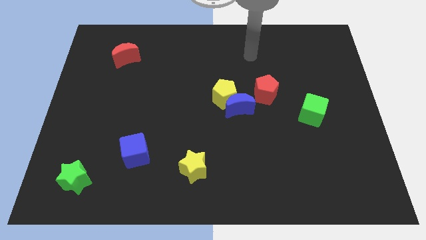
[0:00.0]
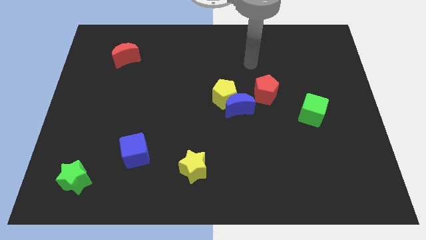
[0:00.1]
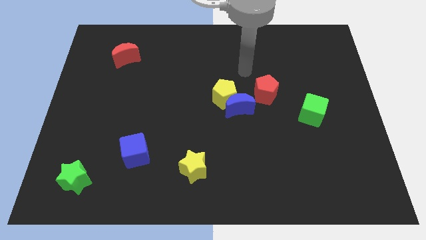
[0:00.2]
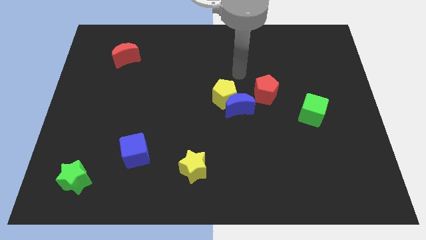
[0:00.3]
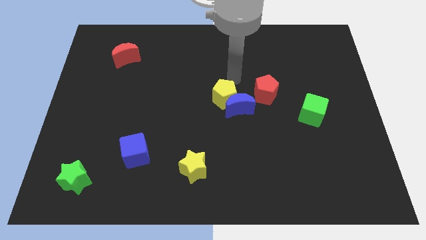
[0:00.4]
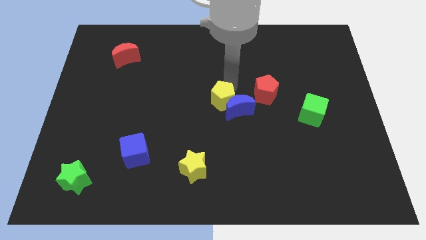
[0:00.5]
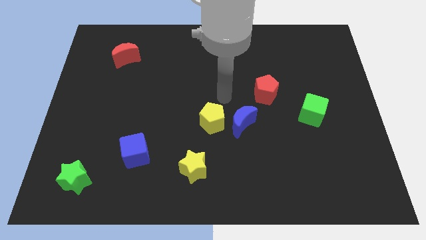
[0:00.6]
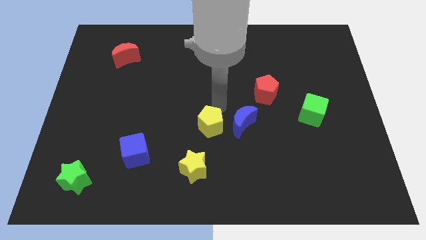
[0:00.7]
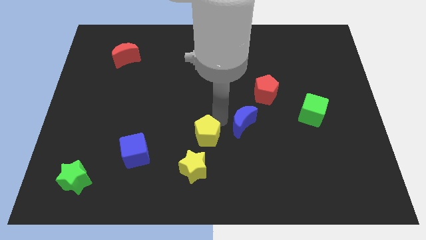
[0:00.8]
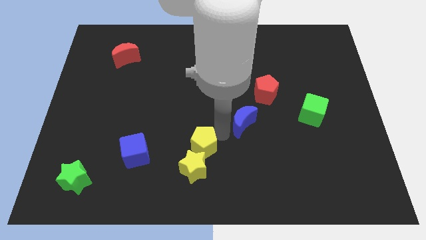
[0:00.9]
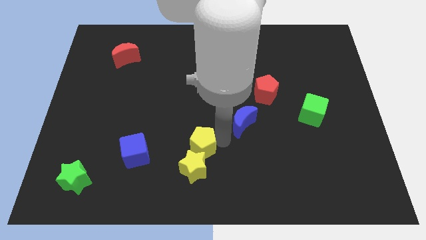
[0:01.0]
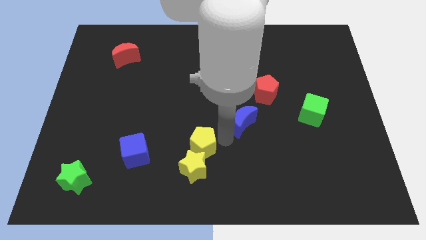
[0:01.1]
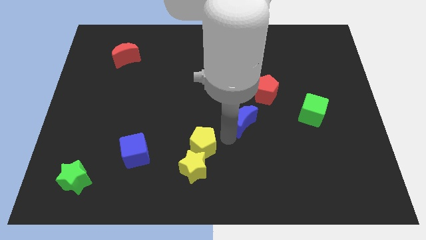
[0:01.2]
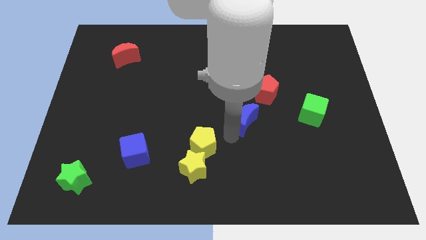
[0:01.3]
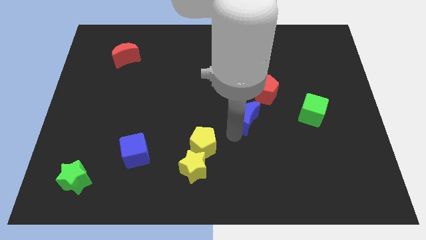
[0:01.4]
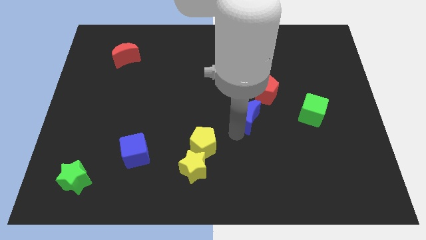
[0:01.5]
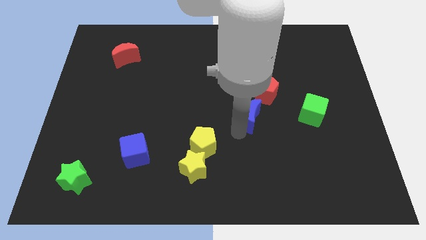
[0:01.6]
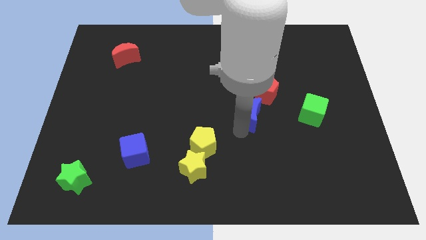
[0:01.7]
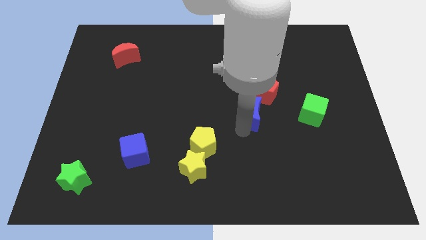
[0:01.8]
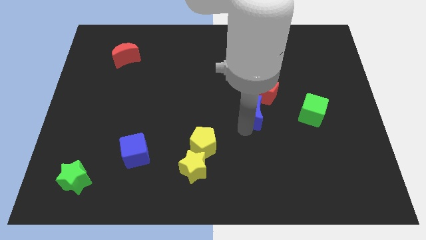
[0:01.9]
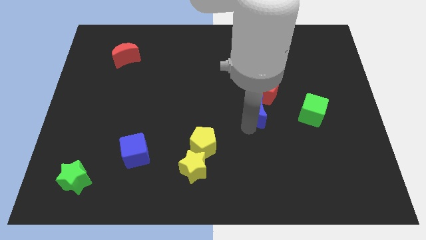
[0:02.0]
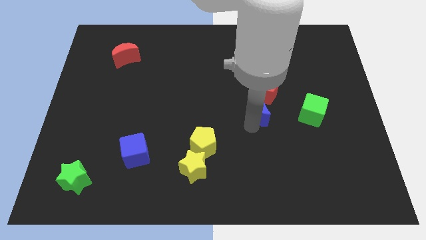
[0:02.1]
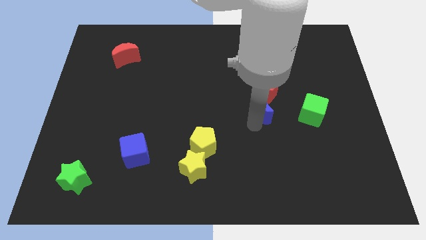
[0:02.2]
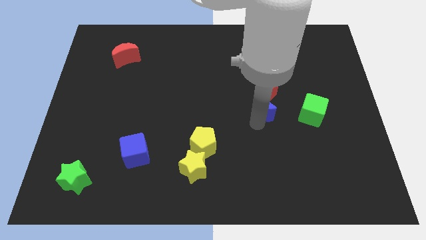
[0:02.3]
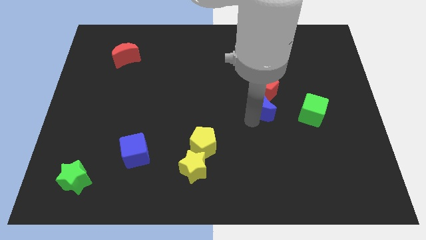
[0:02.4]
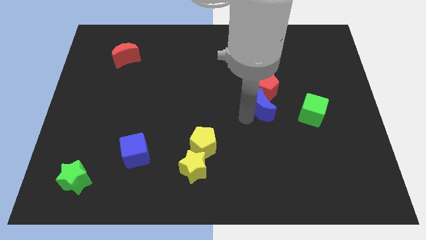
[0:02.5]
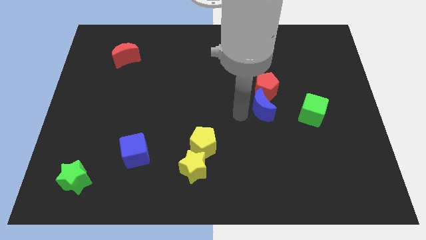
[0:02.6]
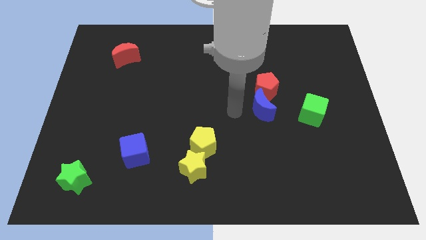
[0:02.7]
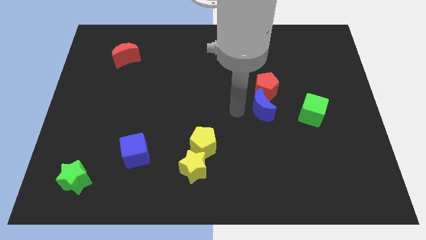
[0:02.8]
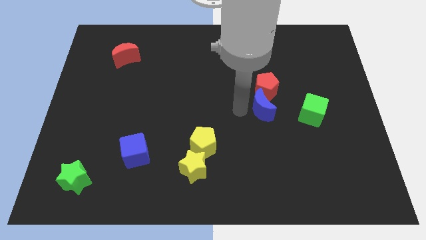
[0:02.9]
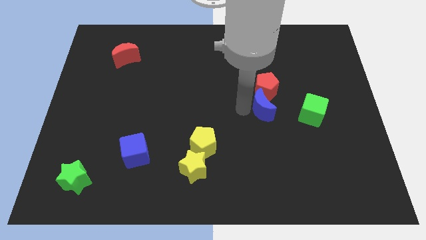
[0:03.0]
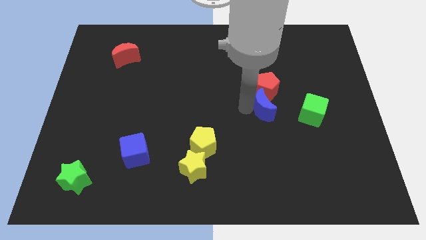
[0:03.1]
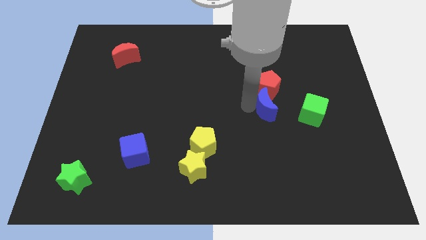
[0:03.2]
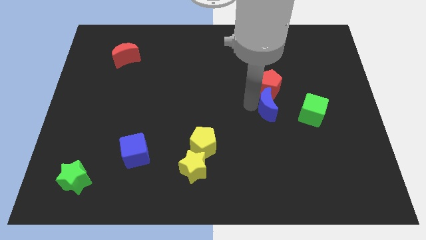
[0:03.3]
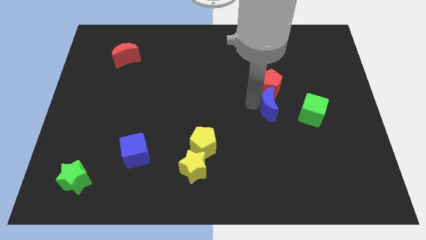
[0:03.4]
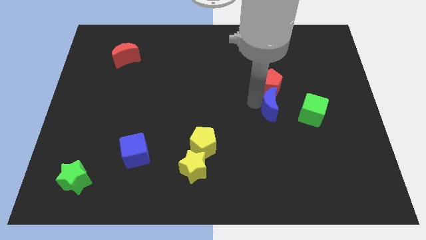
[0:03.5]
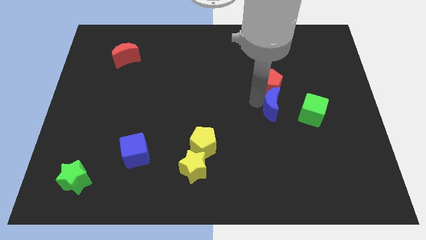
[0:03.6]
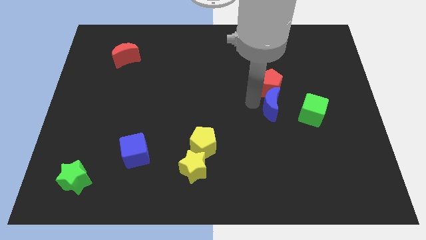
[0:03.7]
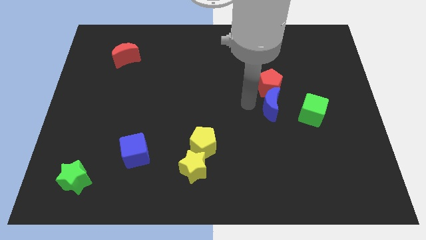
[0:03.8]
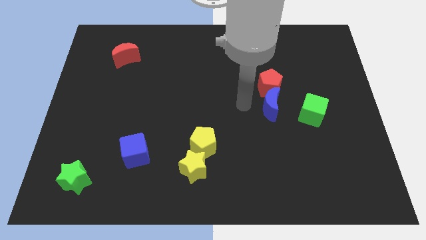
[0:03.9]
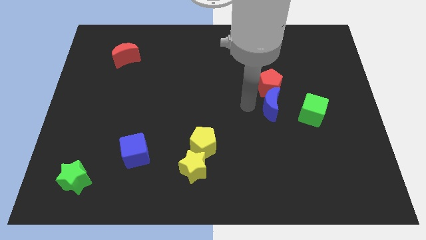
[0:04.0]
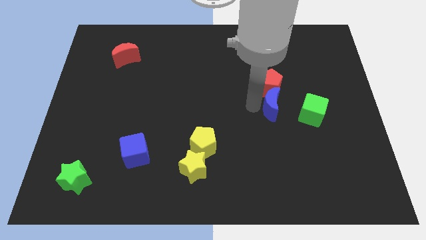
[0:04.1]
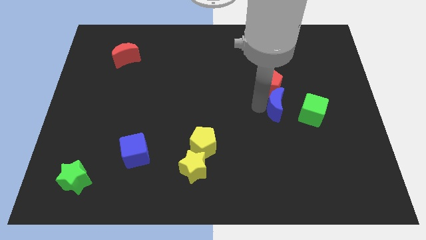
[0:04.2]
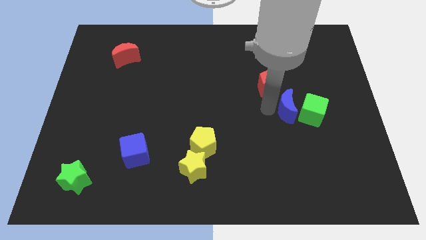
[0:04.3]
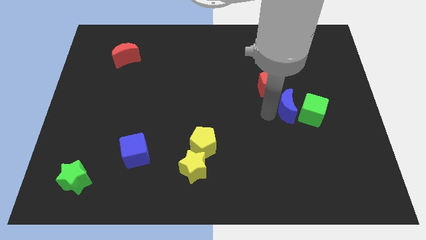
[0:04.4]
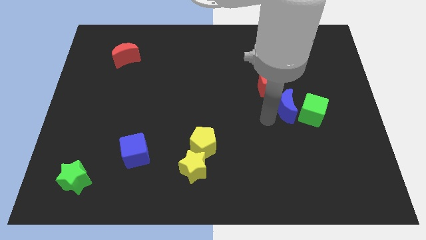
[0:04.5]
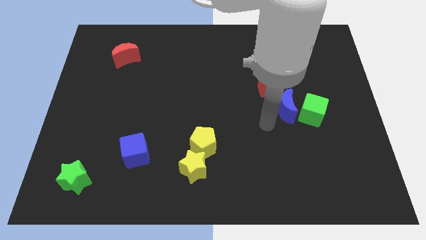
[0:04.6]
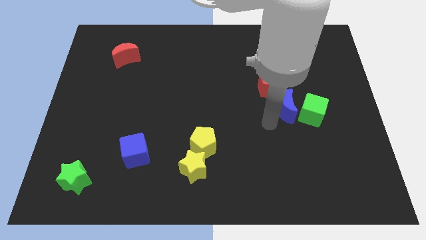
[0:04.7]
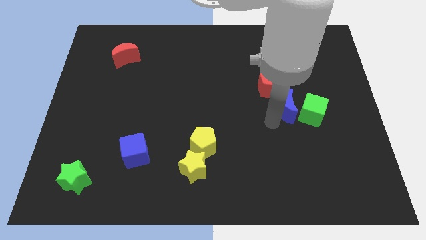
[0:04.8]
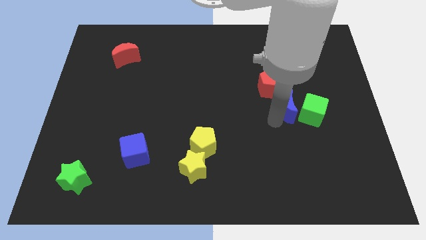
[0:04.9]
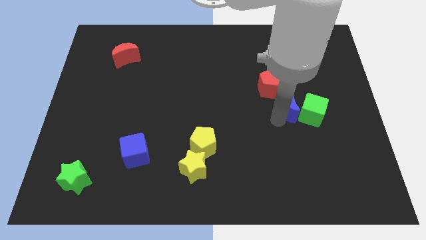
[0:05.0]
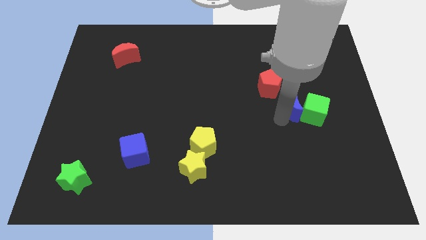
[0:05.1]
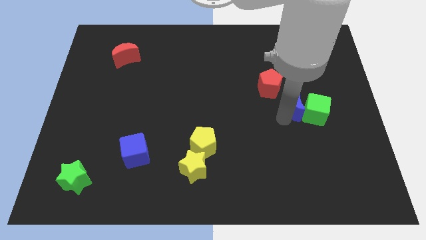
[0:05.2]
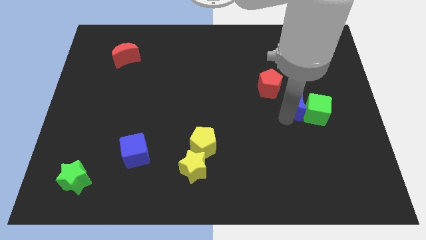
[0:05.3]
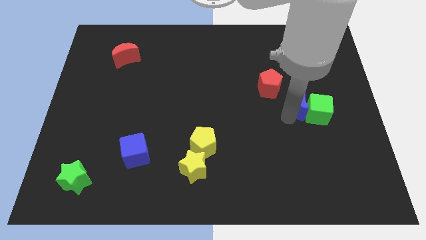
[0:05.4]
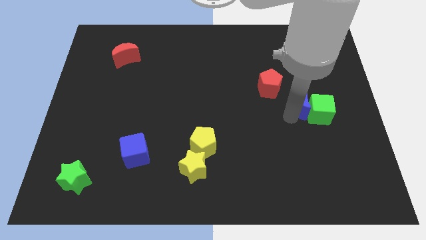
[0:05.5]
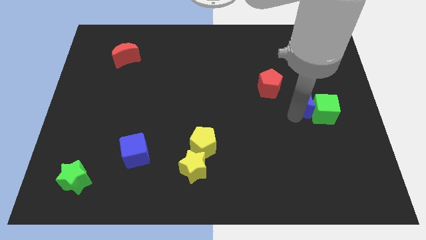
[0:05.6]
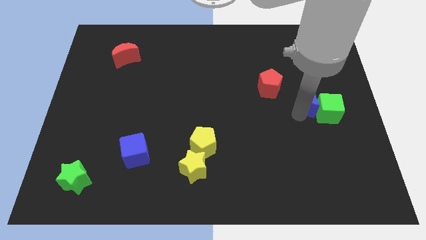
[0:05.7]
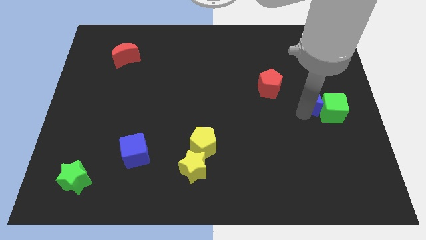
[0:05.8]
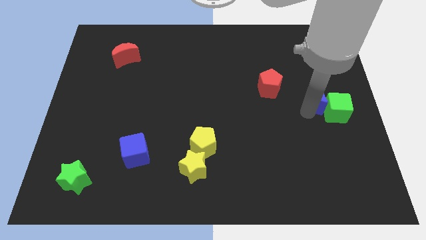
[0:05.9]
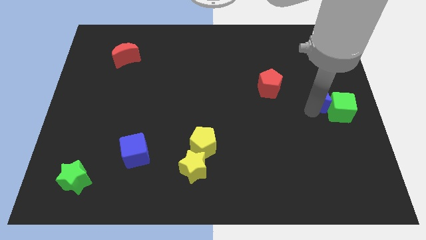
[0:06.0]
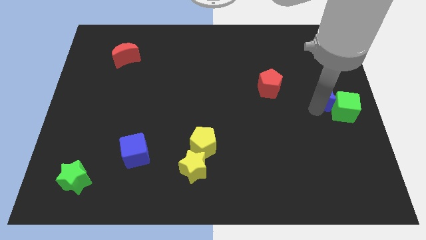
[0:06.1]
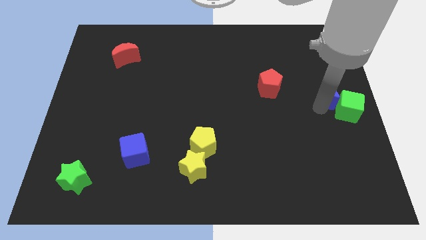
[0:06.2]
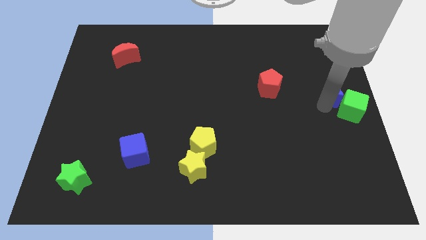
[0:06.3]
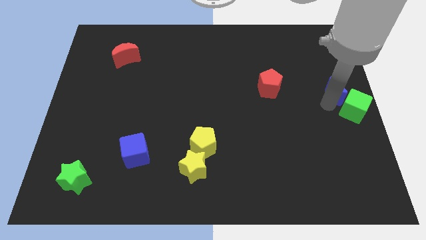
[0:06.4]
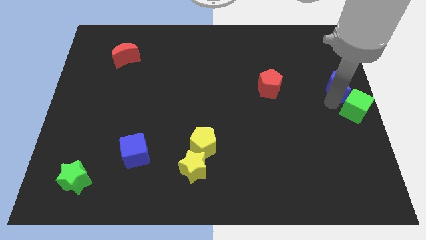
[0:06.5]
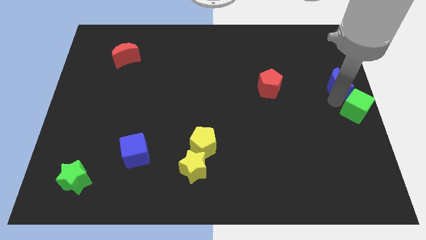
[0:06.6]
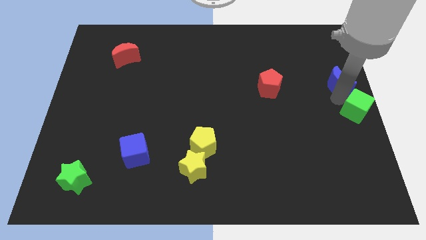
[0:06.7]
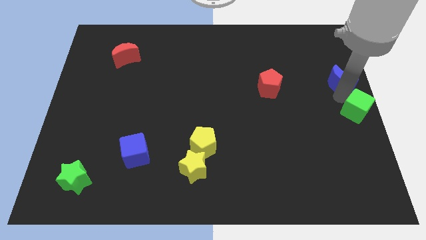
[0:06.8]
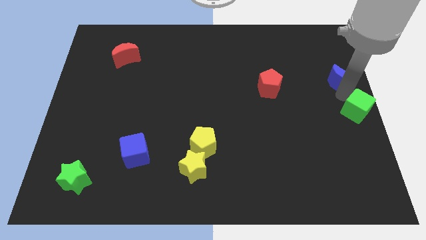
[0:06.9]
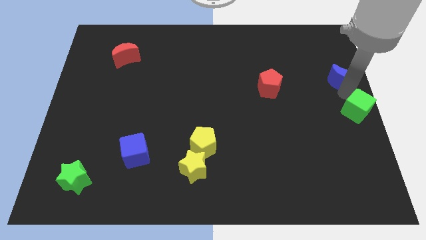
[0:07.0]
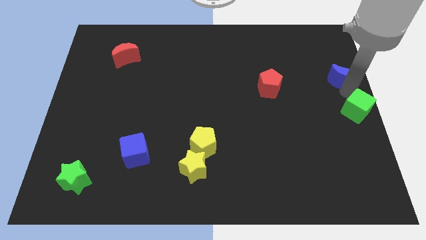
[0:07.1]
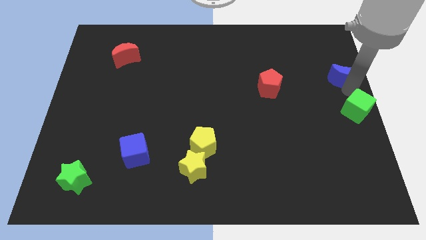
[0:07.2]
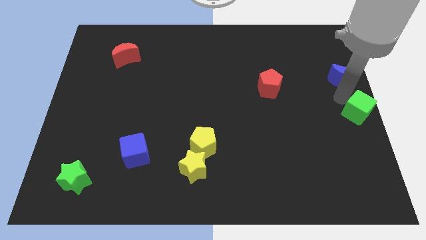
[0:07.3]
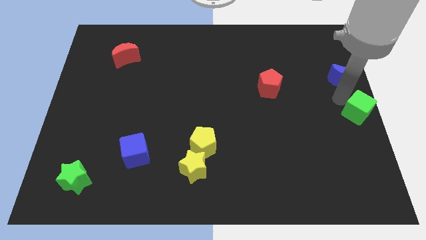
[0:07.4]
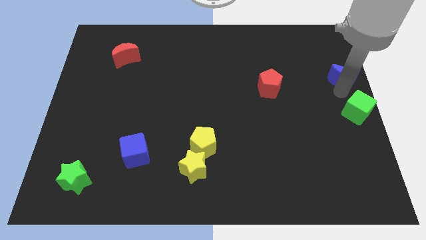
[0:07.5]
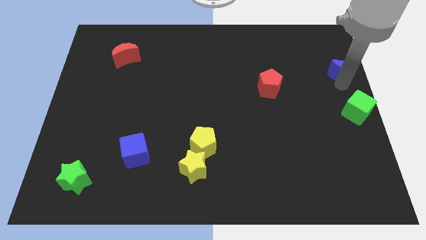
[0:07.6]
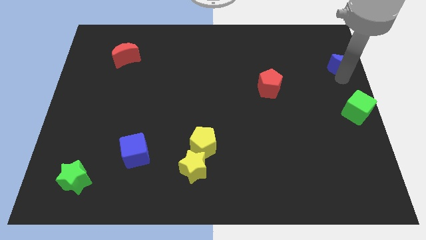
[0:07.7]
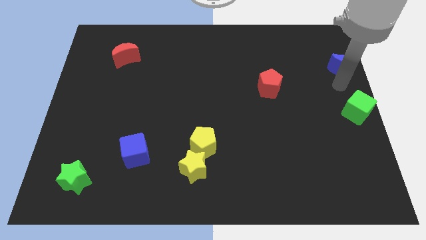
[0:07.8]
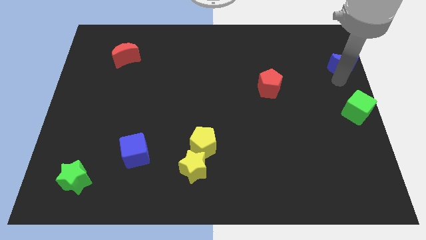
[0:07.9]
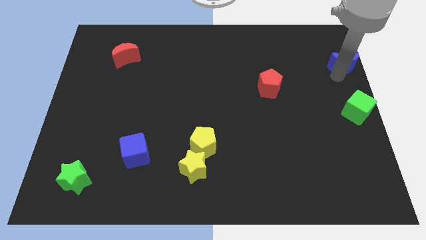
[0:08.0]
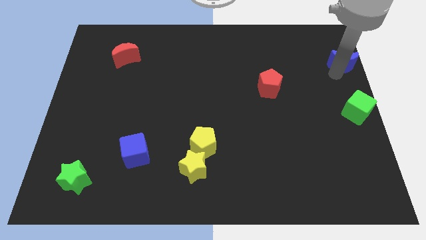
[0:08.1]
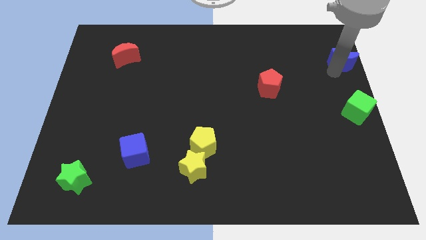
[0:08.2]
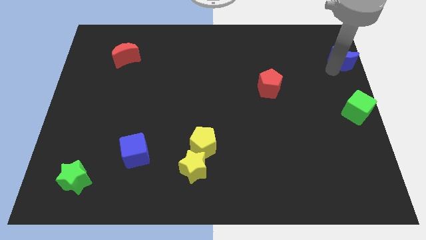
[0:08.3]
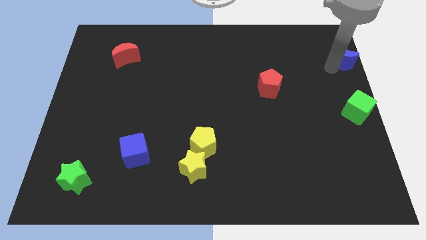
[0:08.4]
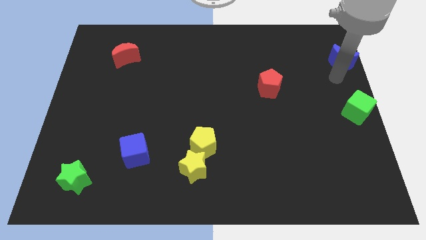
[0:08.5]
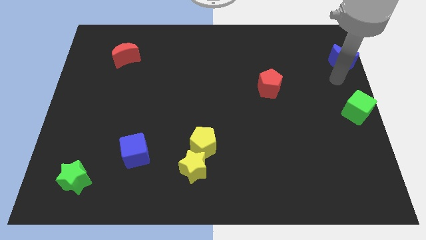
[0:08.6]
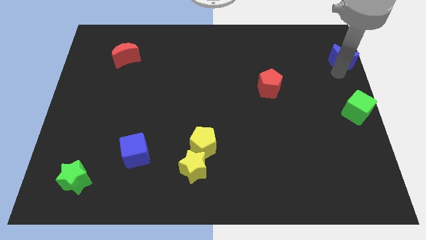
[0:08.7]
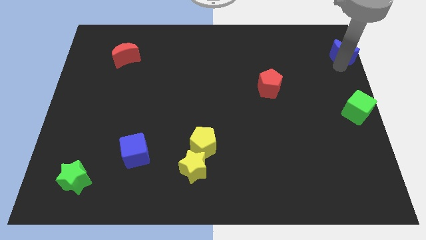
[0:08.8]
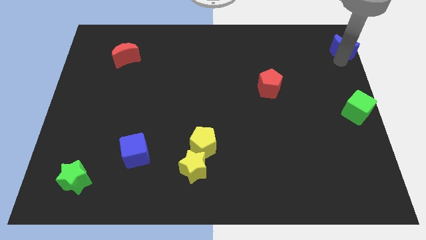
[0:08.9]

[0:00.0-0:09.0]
put the blue moon to the upper right corner
